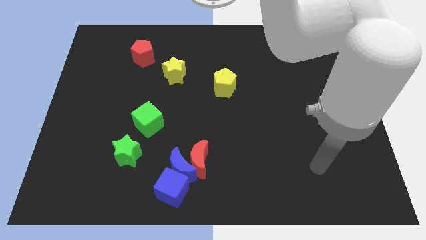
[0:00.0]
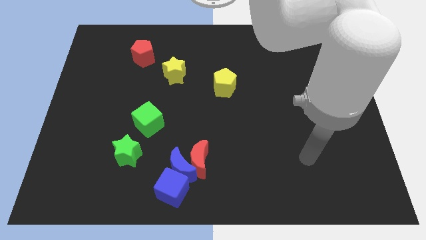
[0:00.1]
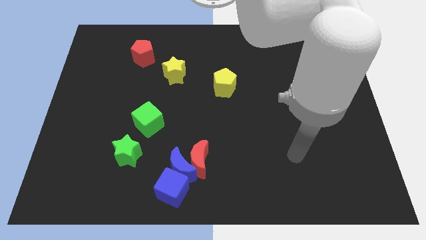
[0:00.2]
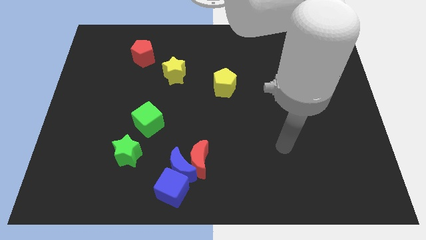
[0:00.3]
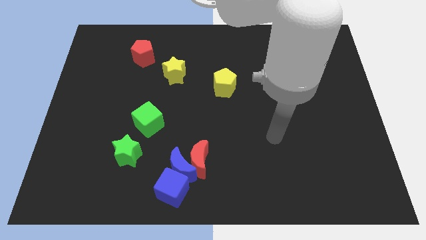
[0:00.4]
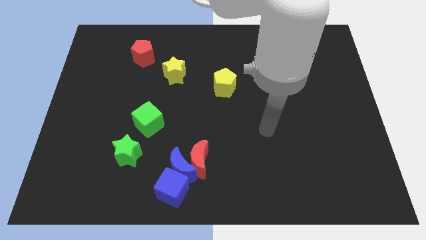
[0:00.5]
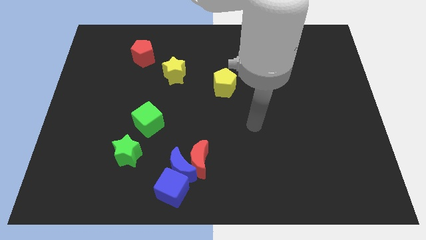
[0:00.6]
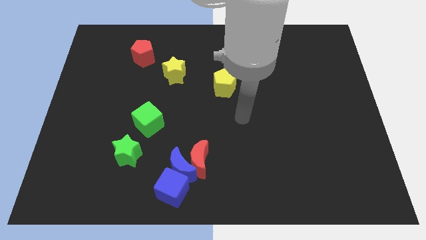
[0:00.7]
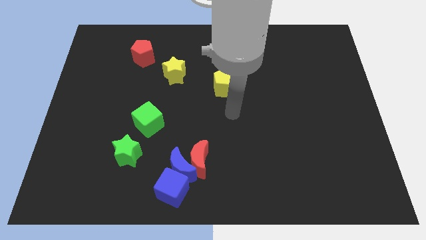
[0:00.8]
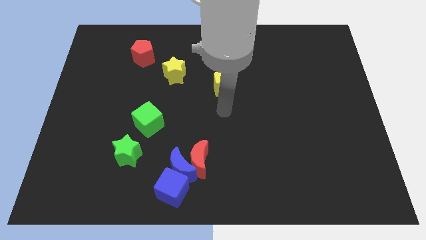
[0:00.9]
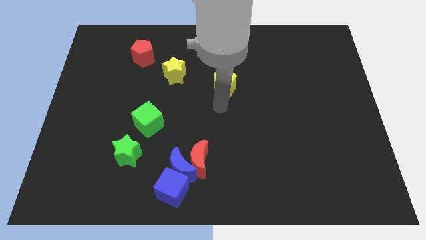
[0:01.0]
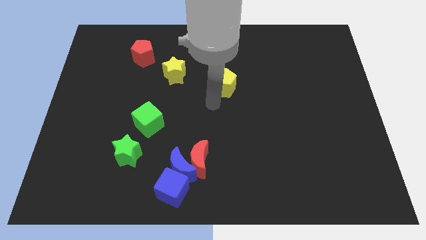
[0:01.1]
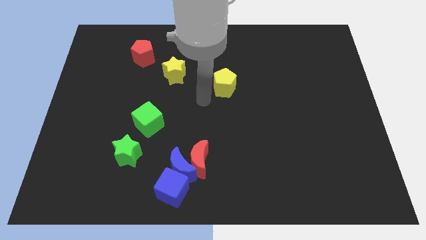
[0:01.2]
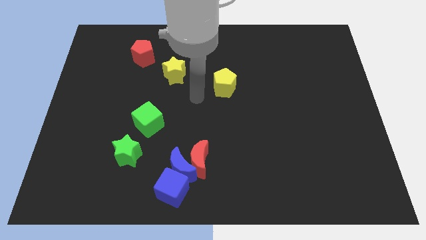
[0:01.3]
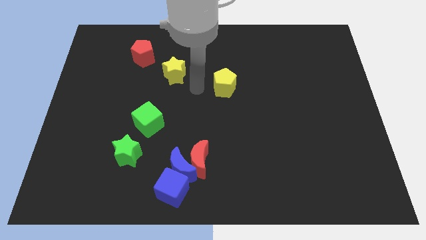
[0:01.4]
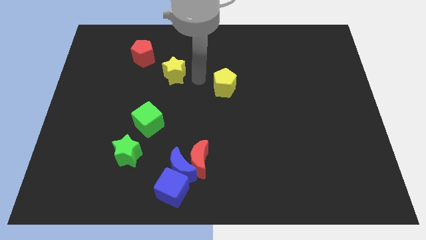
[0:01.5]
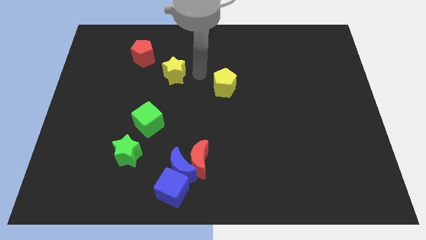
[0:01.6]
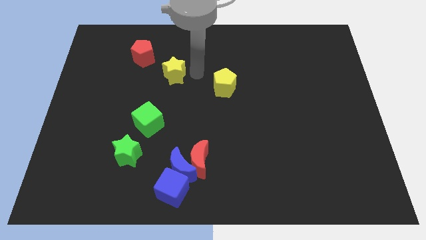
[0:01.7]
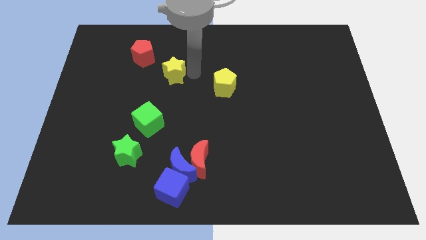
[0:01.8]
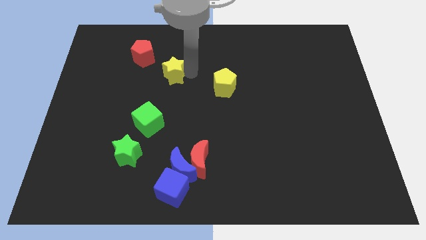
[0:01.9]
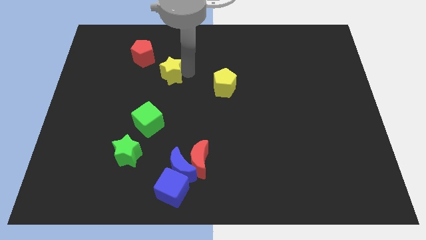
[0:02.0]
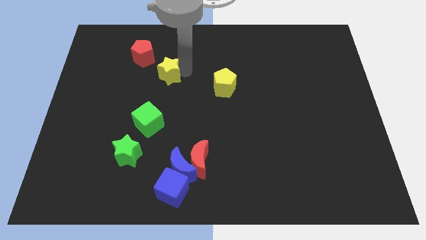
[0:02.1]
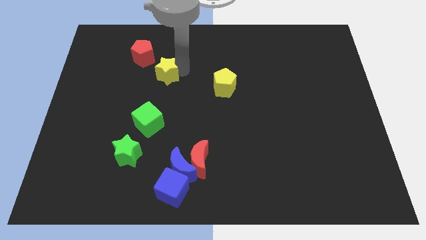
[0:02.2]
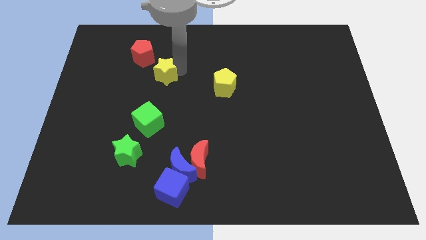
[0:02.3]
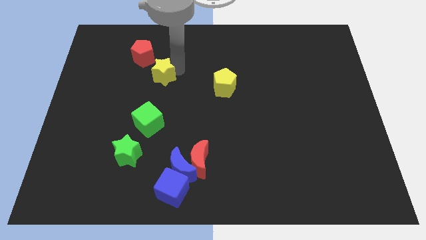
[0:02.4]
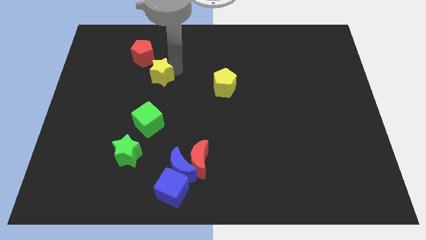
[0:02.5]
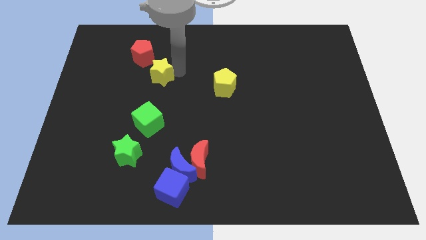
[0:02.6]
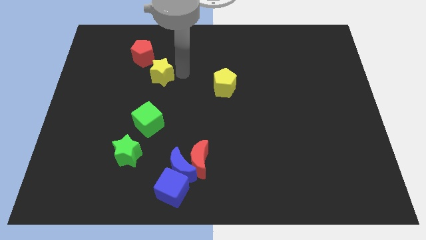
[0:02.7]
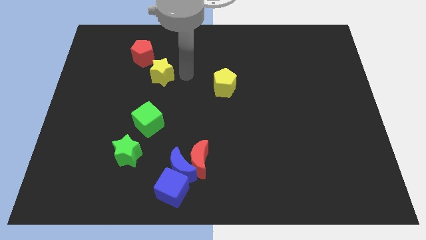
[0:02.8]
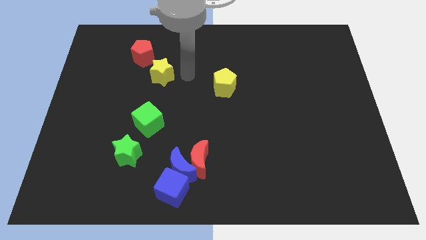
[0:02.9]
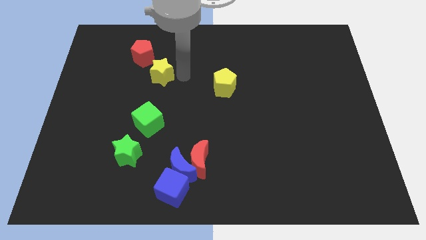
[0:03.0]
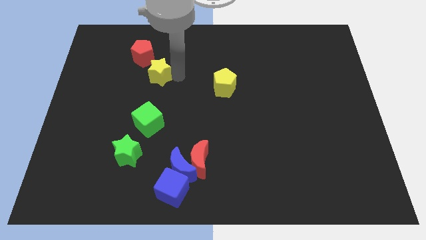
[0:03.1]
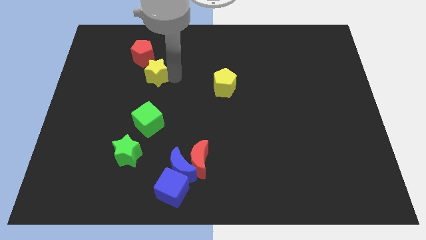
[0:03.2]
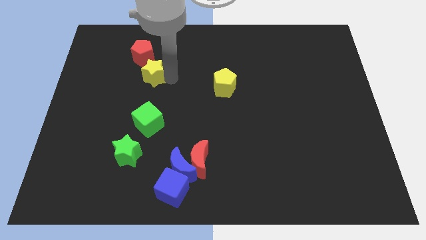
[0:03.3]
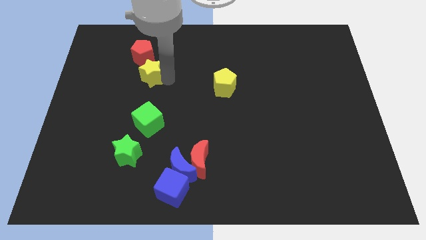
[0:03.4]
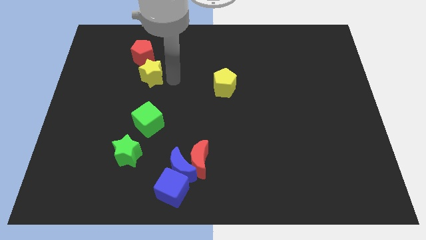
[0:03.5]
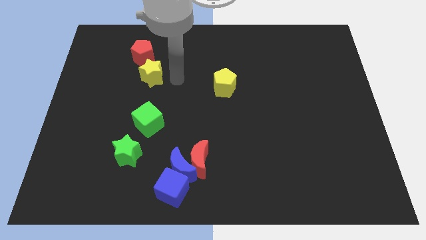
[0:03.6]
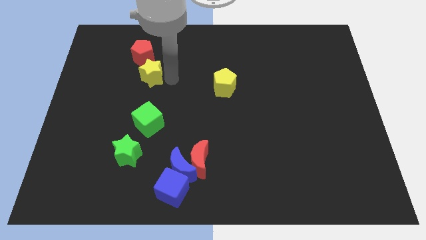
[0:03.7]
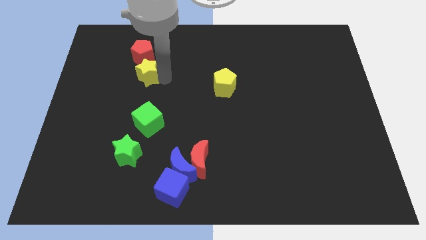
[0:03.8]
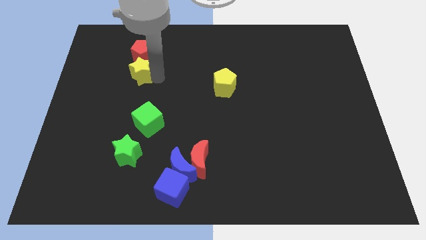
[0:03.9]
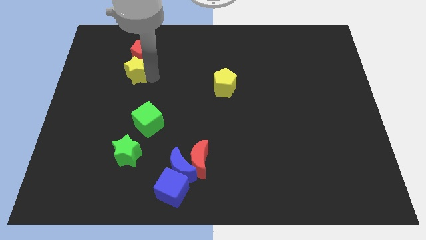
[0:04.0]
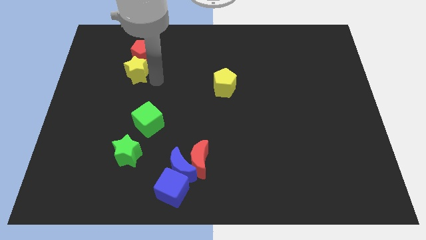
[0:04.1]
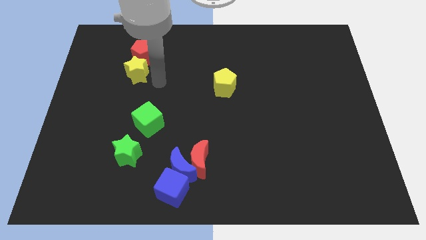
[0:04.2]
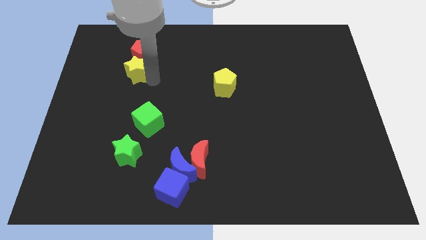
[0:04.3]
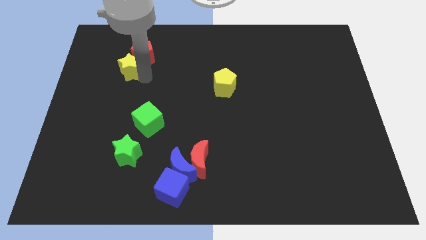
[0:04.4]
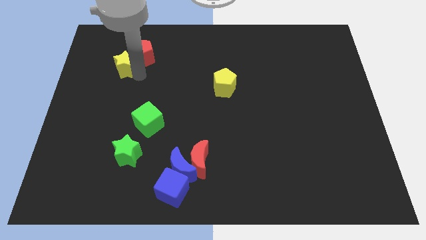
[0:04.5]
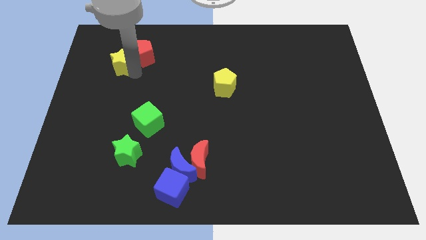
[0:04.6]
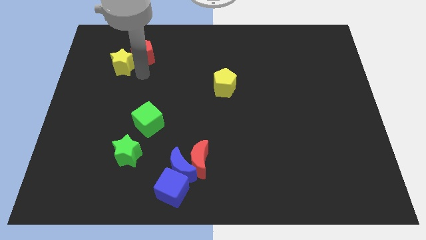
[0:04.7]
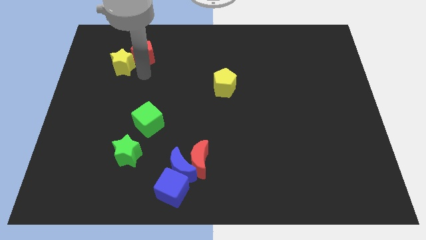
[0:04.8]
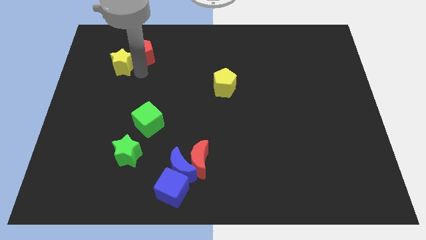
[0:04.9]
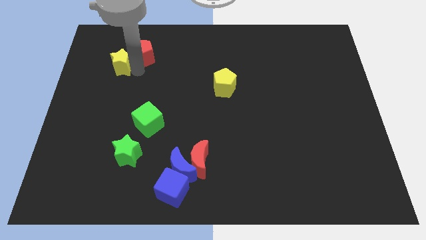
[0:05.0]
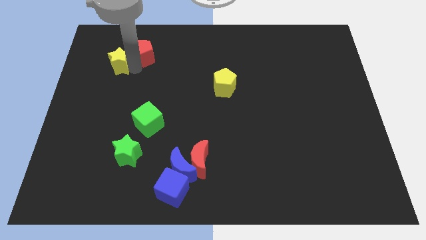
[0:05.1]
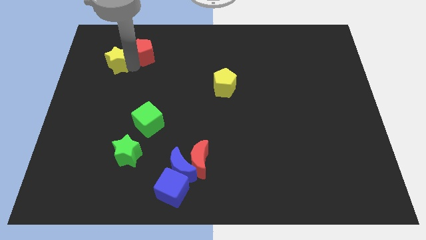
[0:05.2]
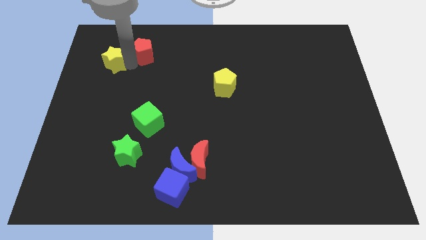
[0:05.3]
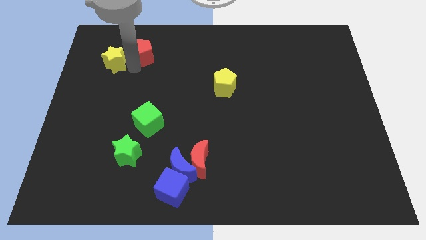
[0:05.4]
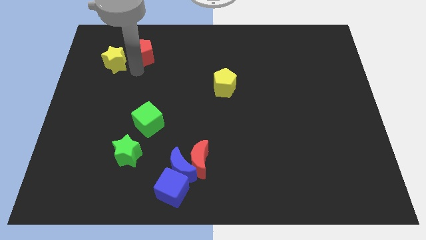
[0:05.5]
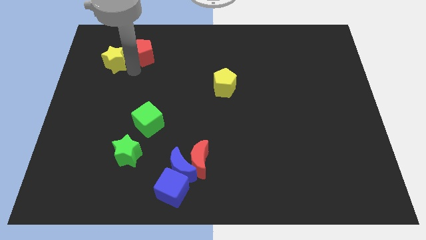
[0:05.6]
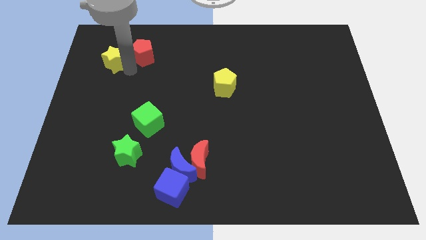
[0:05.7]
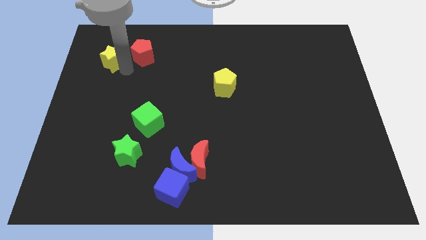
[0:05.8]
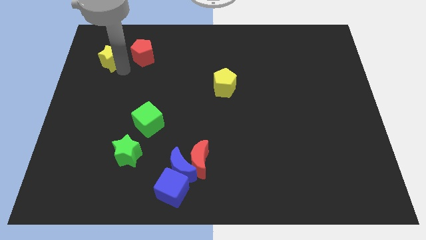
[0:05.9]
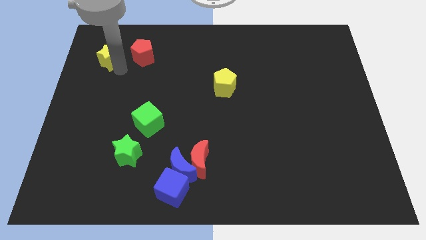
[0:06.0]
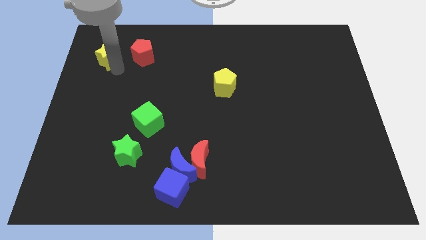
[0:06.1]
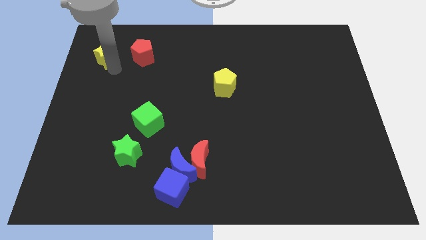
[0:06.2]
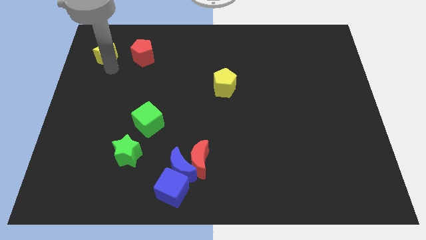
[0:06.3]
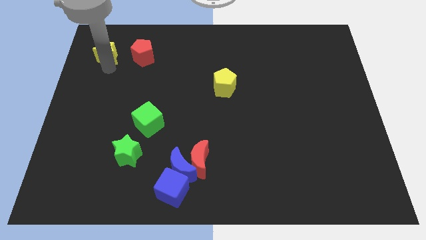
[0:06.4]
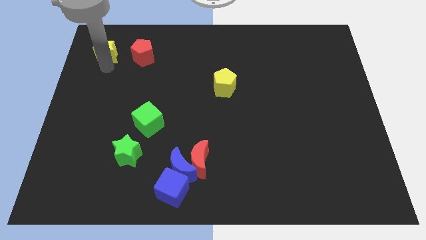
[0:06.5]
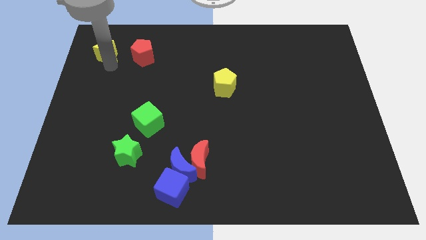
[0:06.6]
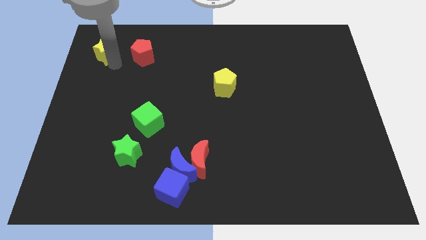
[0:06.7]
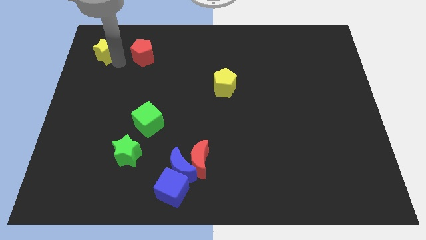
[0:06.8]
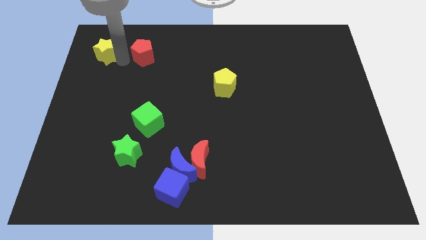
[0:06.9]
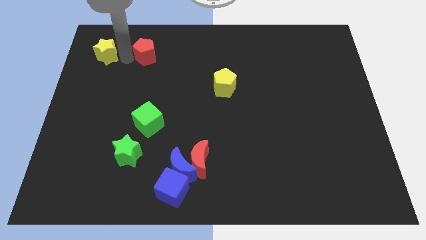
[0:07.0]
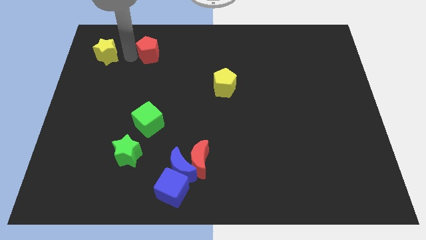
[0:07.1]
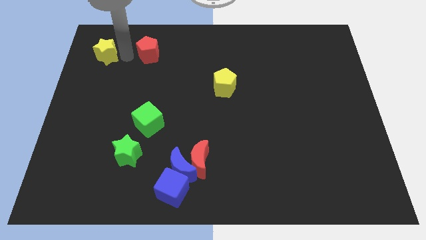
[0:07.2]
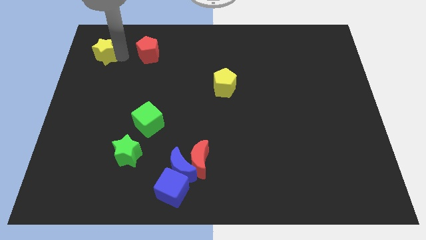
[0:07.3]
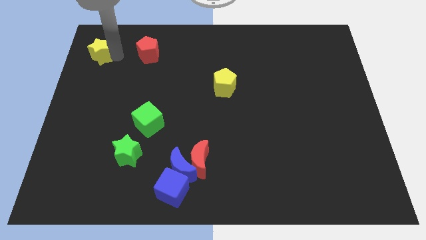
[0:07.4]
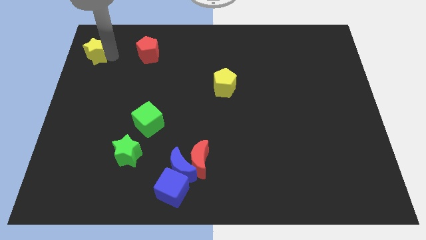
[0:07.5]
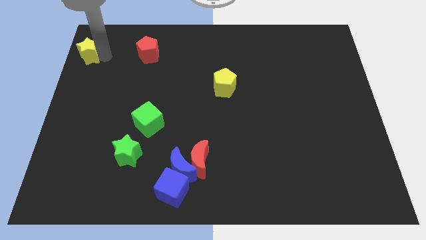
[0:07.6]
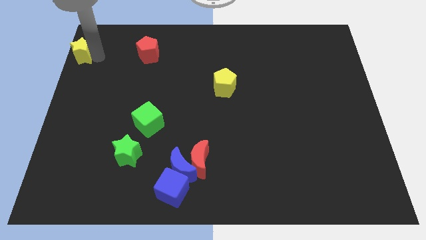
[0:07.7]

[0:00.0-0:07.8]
move the yellow star to the top left of the board
